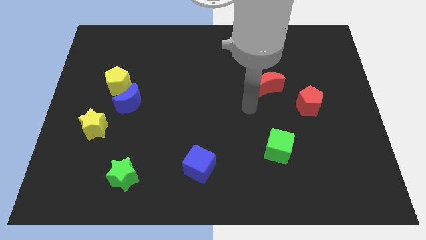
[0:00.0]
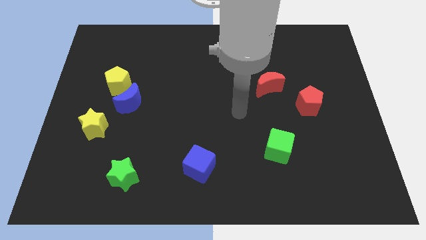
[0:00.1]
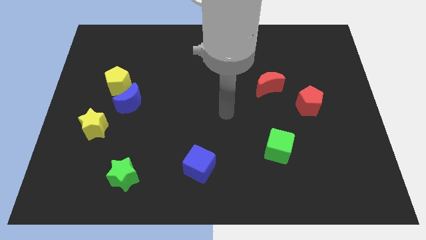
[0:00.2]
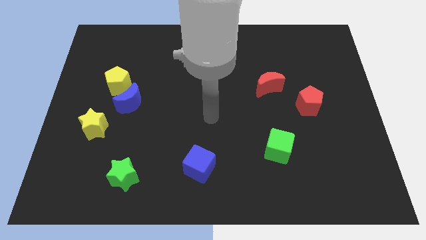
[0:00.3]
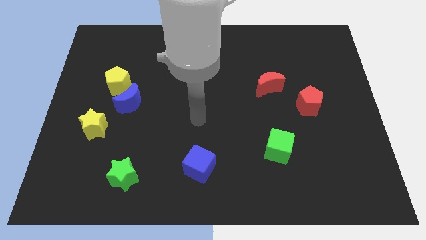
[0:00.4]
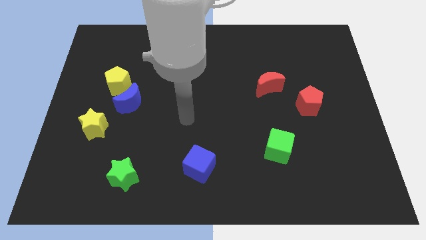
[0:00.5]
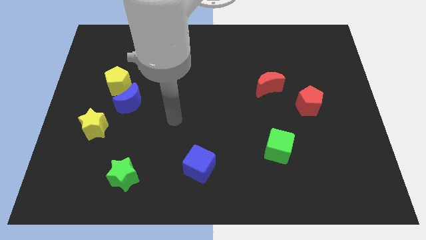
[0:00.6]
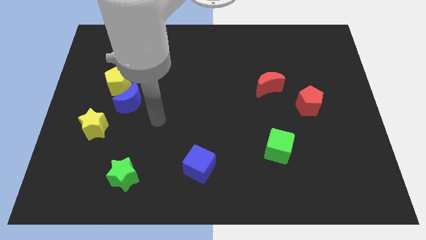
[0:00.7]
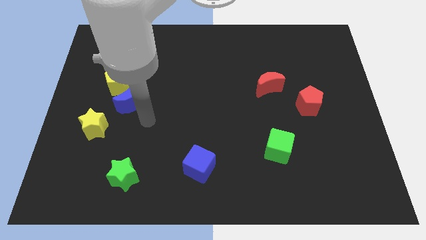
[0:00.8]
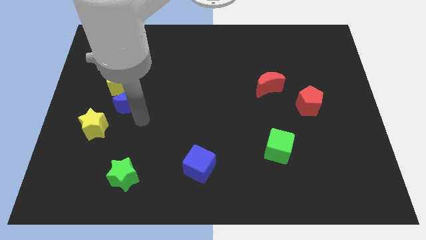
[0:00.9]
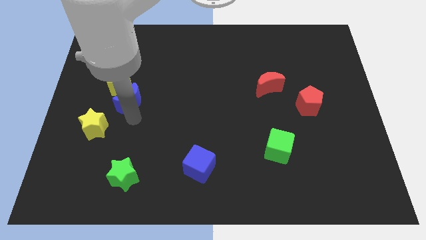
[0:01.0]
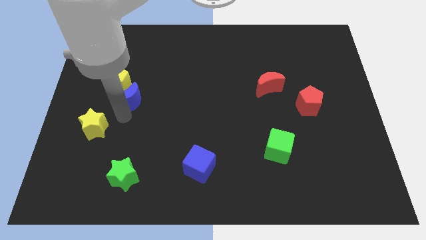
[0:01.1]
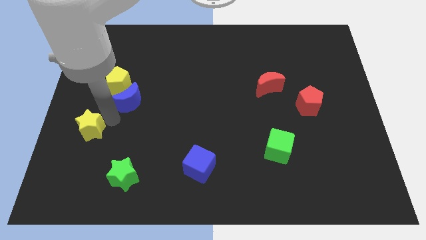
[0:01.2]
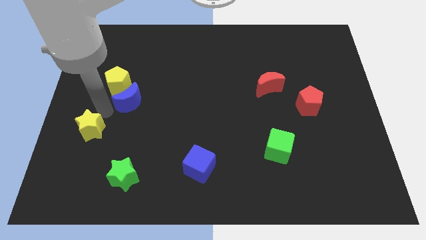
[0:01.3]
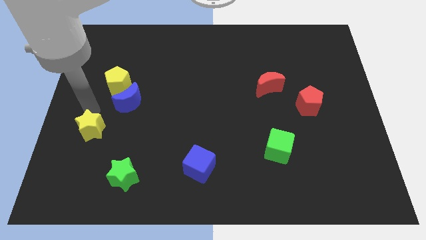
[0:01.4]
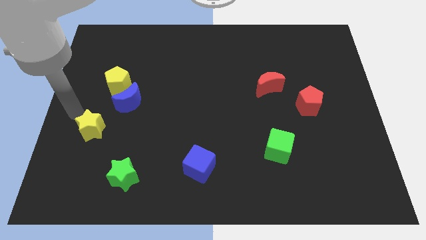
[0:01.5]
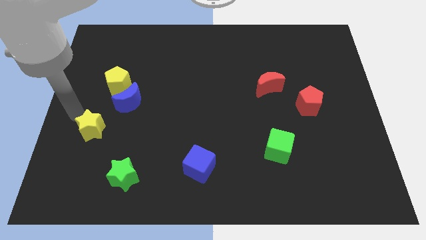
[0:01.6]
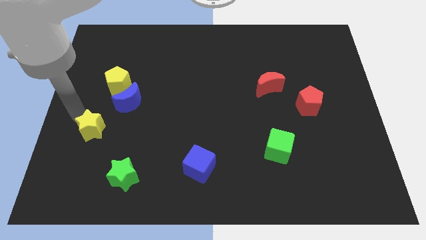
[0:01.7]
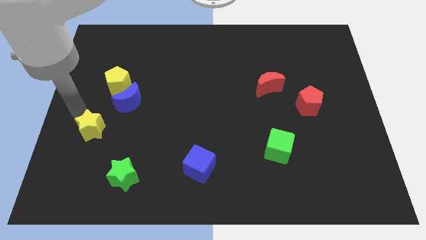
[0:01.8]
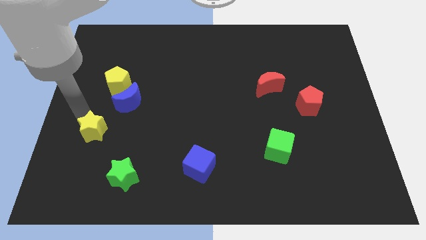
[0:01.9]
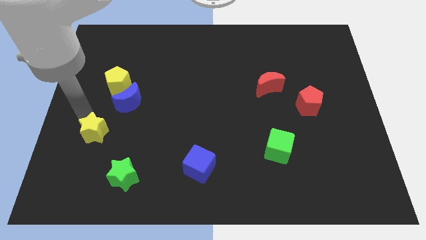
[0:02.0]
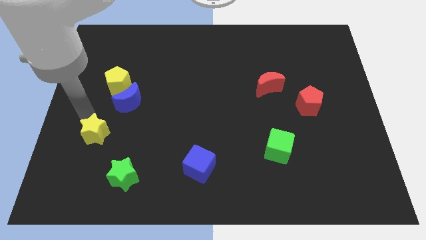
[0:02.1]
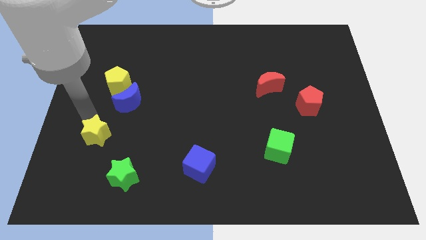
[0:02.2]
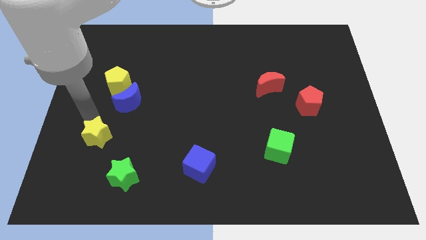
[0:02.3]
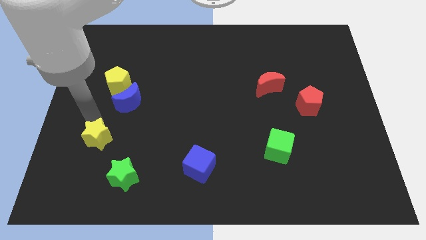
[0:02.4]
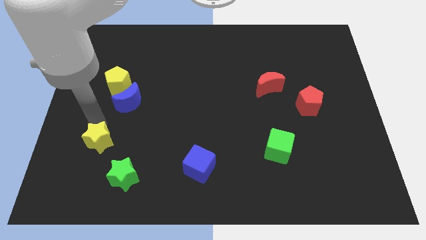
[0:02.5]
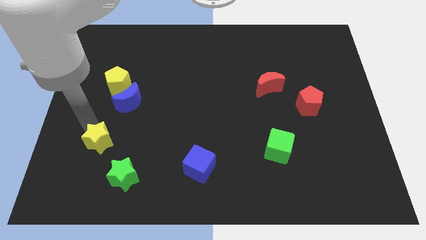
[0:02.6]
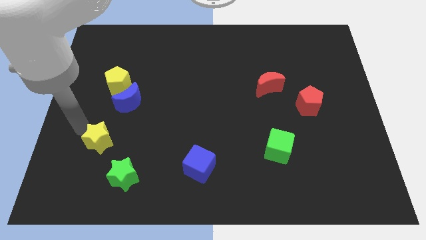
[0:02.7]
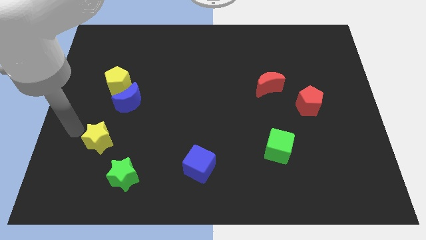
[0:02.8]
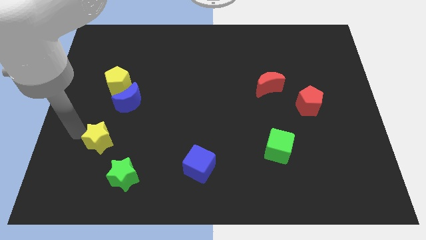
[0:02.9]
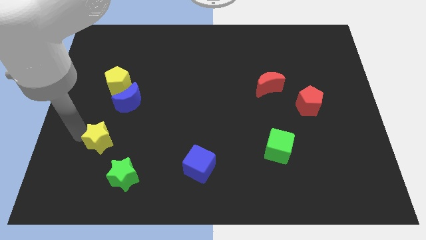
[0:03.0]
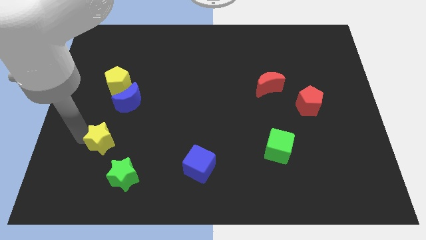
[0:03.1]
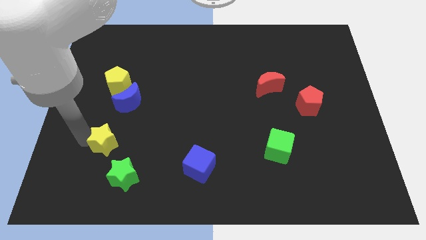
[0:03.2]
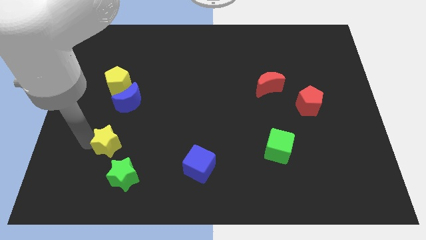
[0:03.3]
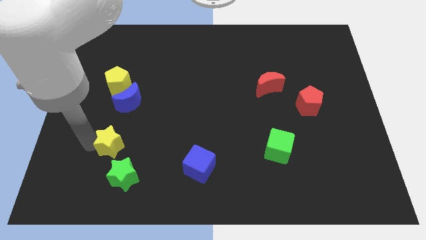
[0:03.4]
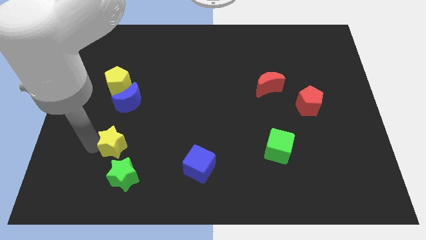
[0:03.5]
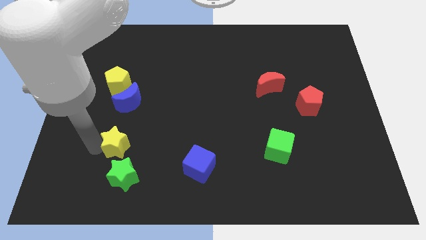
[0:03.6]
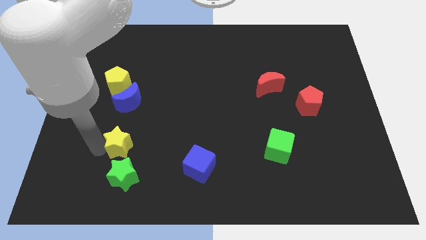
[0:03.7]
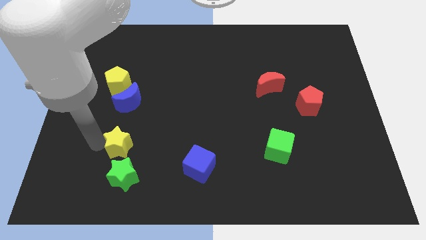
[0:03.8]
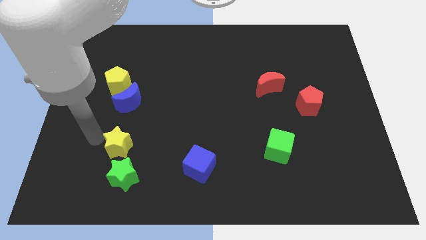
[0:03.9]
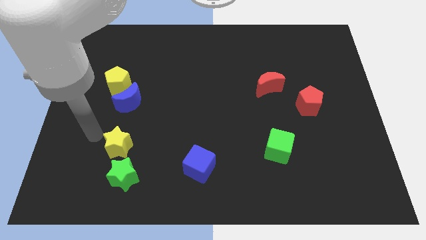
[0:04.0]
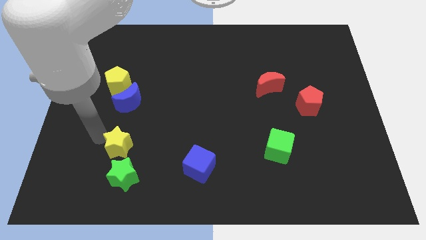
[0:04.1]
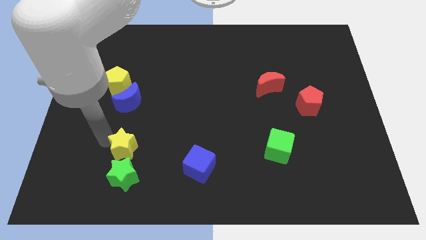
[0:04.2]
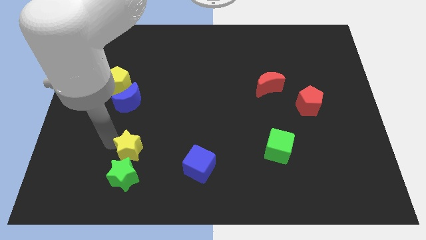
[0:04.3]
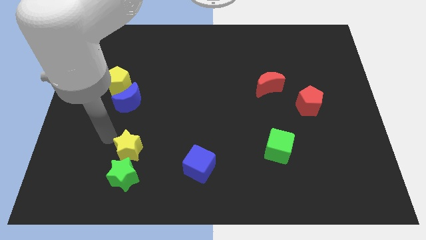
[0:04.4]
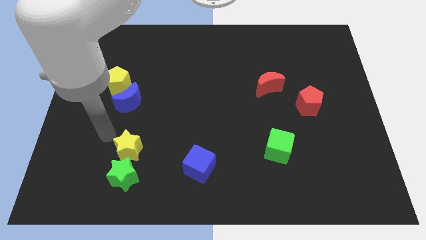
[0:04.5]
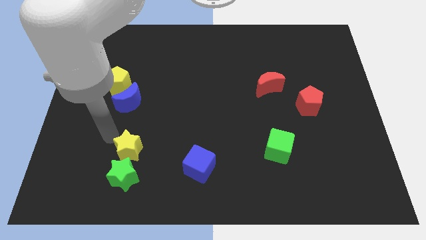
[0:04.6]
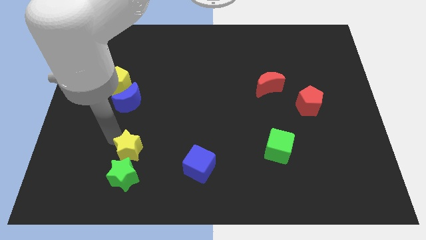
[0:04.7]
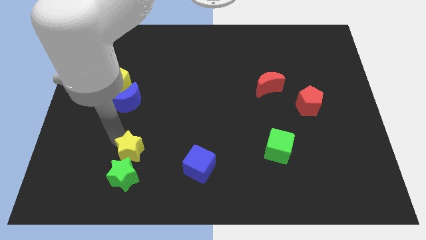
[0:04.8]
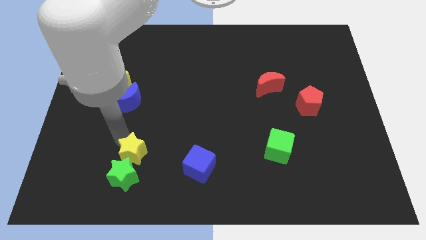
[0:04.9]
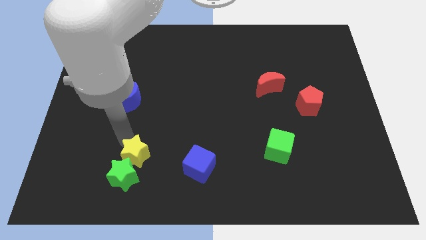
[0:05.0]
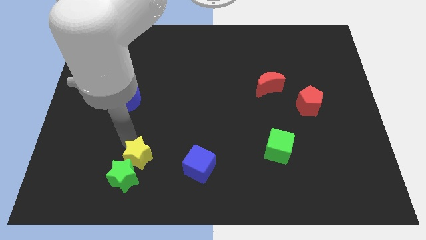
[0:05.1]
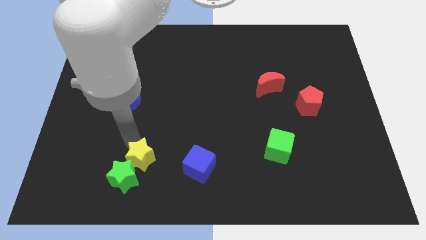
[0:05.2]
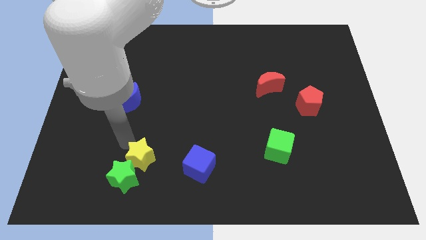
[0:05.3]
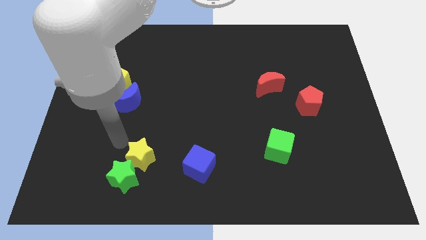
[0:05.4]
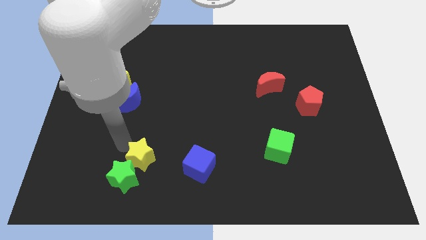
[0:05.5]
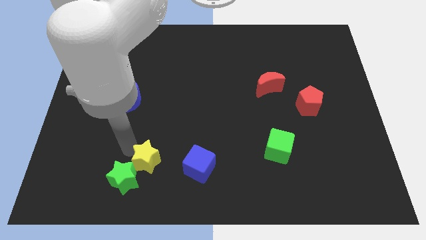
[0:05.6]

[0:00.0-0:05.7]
push the yellow star to the right side of the green star
